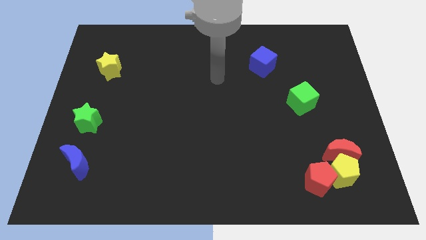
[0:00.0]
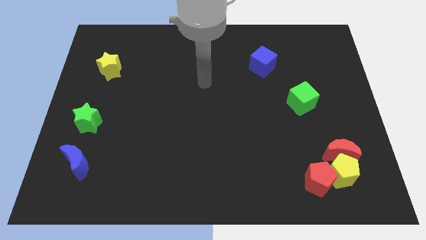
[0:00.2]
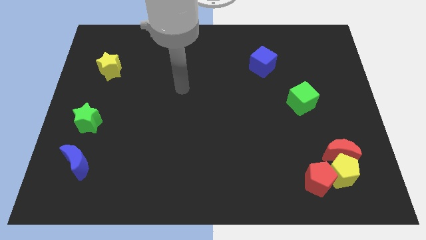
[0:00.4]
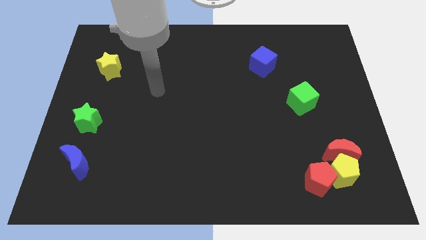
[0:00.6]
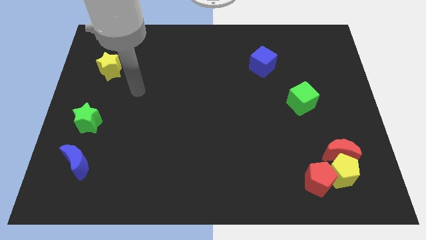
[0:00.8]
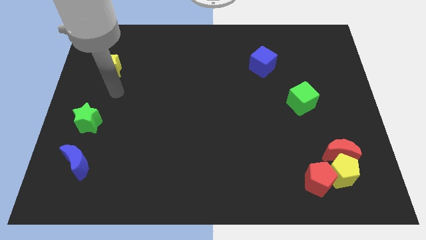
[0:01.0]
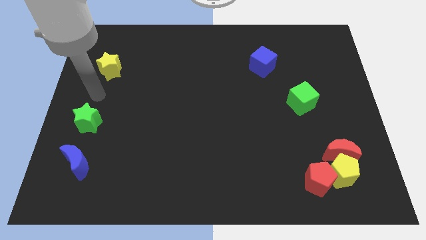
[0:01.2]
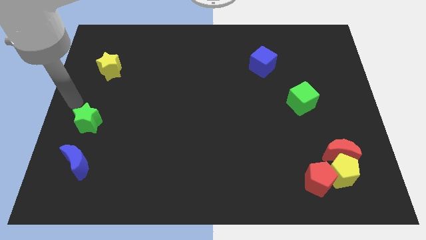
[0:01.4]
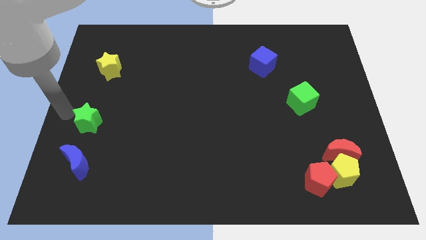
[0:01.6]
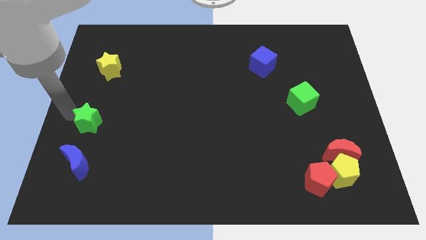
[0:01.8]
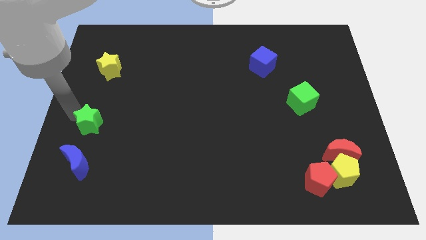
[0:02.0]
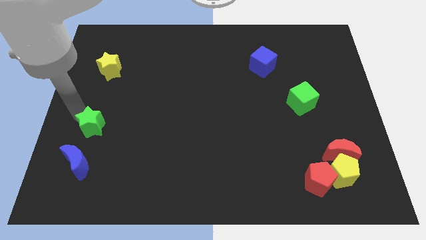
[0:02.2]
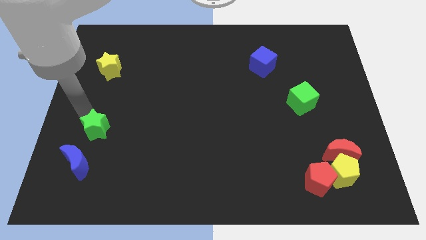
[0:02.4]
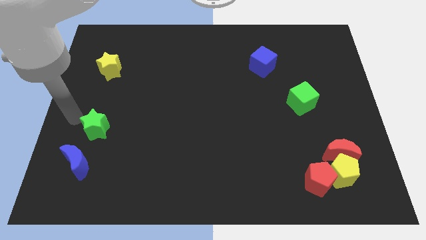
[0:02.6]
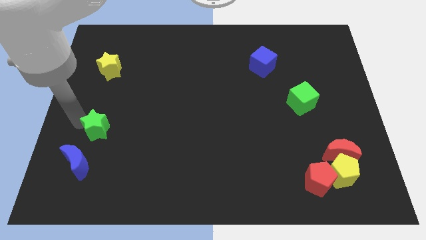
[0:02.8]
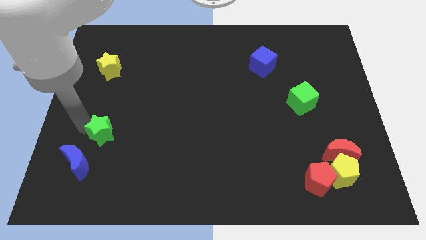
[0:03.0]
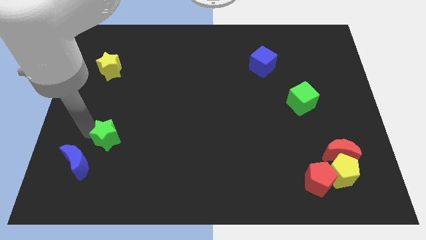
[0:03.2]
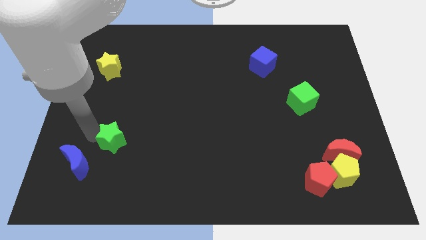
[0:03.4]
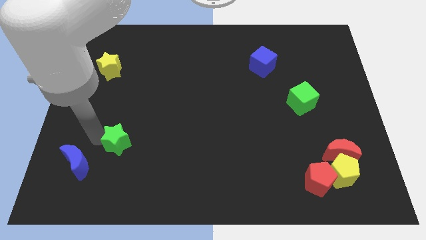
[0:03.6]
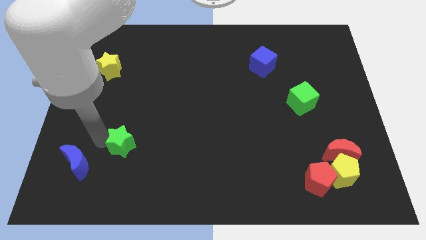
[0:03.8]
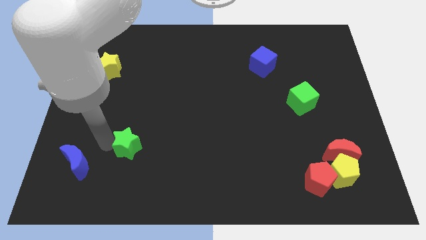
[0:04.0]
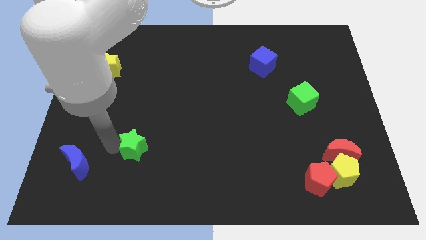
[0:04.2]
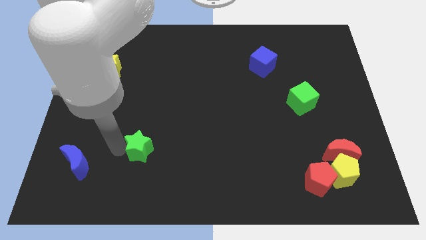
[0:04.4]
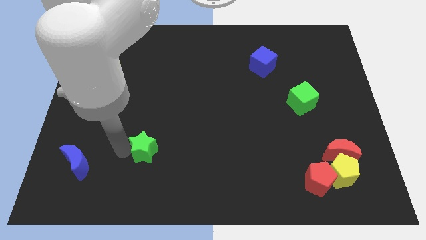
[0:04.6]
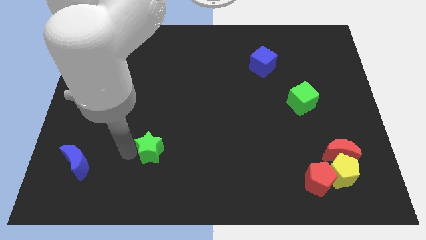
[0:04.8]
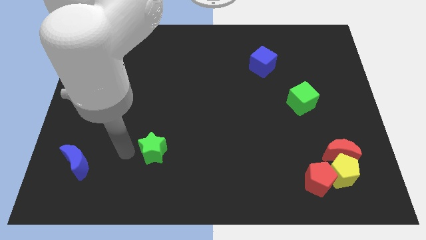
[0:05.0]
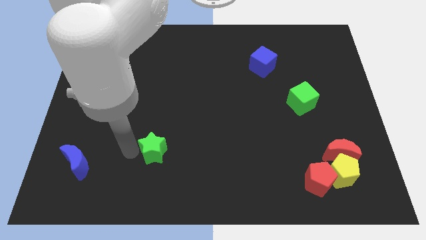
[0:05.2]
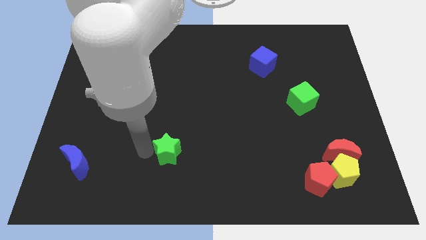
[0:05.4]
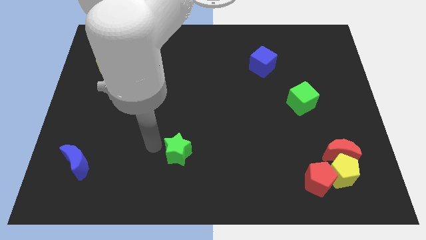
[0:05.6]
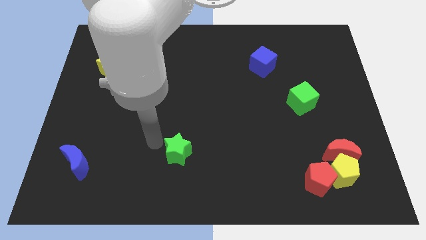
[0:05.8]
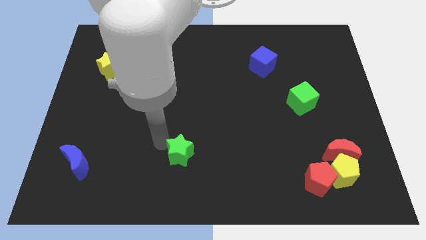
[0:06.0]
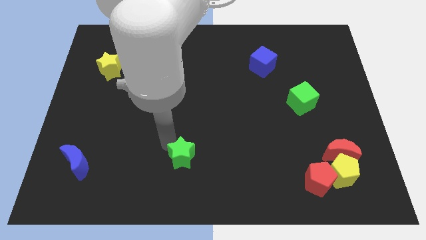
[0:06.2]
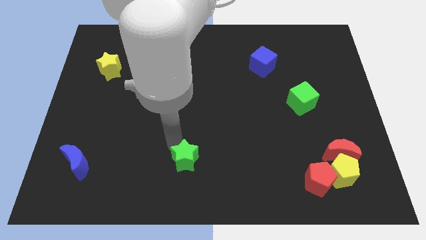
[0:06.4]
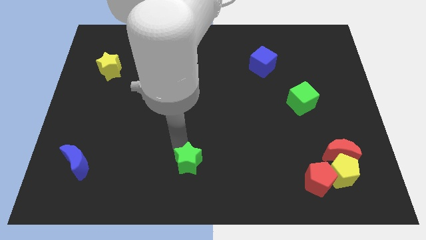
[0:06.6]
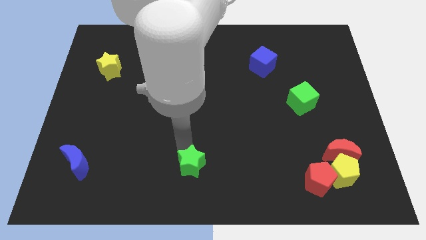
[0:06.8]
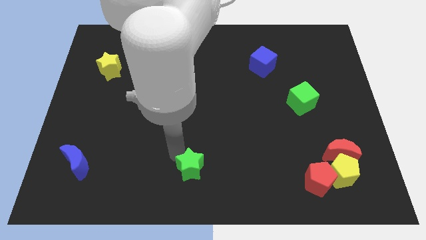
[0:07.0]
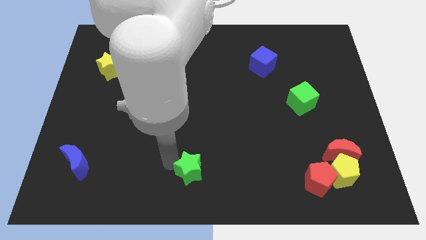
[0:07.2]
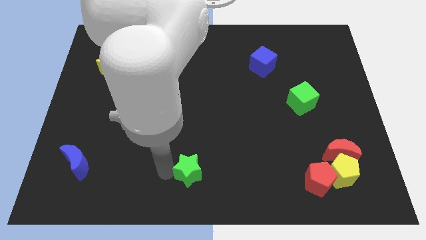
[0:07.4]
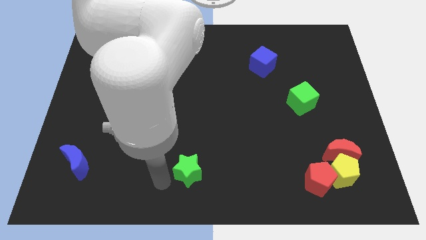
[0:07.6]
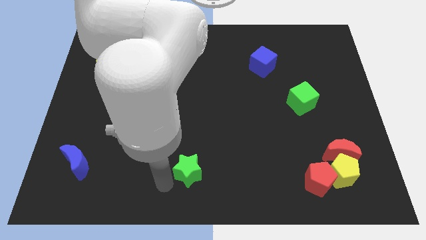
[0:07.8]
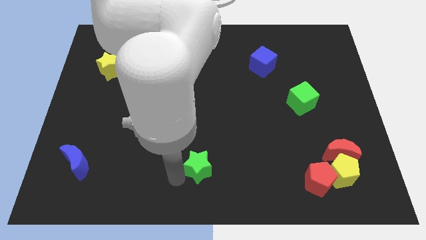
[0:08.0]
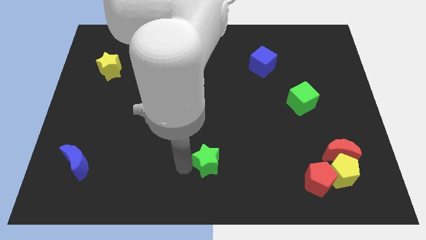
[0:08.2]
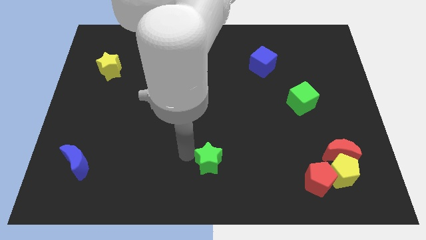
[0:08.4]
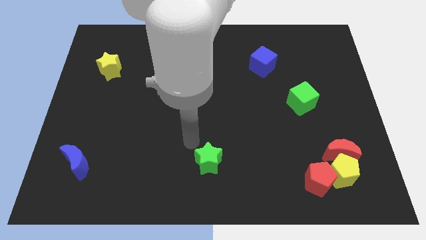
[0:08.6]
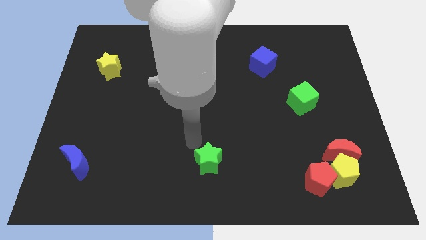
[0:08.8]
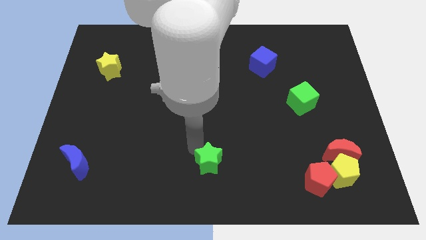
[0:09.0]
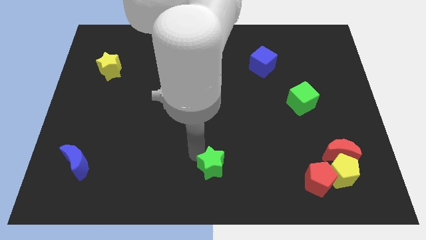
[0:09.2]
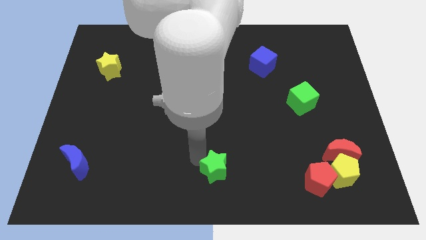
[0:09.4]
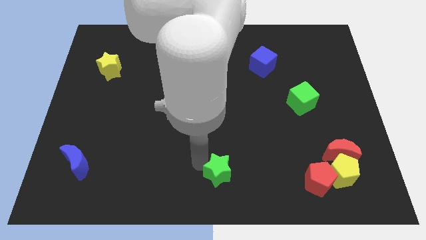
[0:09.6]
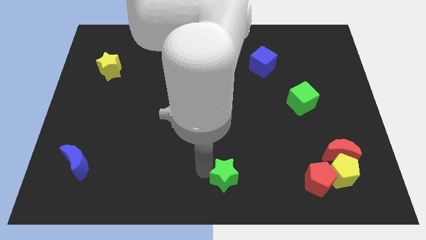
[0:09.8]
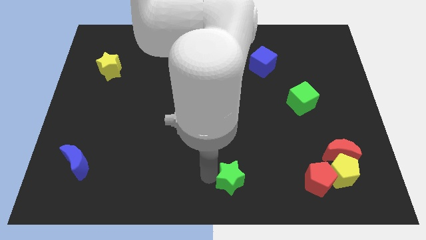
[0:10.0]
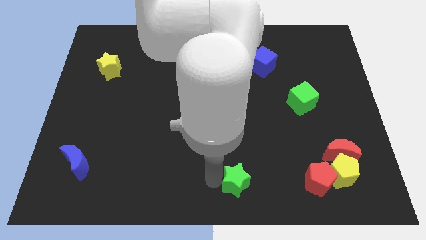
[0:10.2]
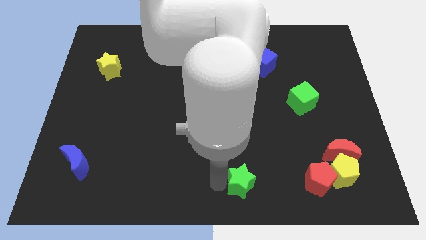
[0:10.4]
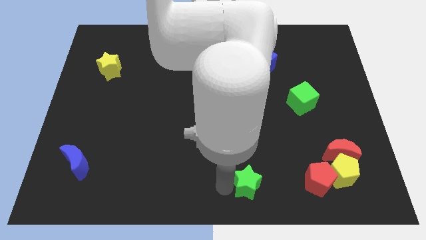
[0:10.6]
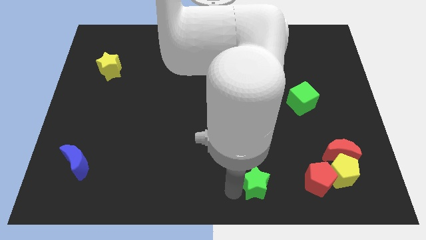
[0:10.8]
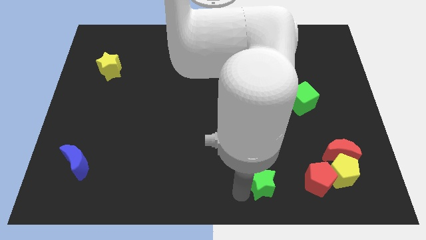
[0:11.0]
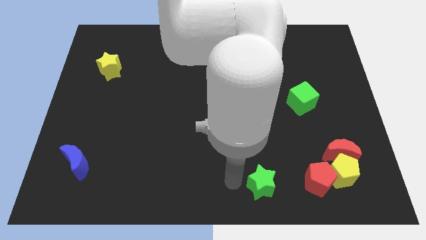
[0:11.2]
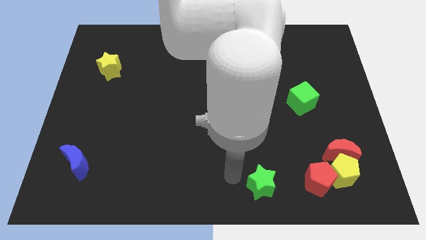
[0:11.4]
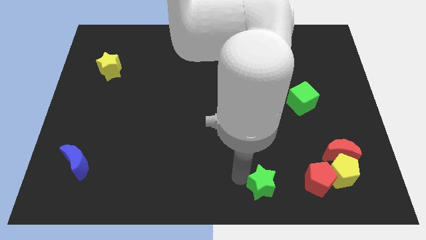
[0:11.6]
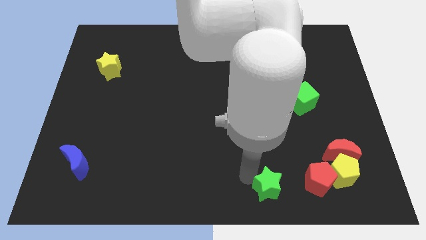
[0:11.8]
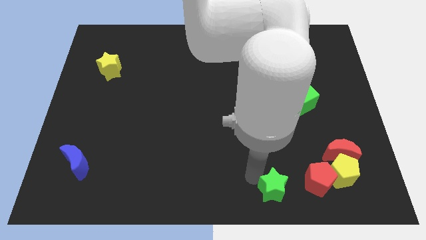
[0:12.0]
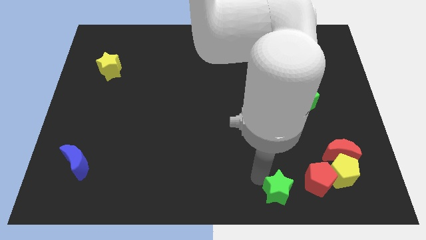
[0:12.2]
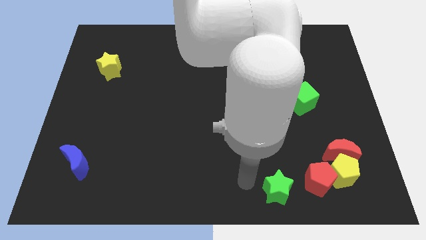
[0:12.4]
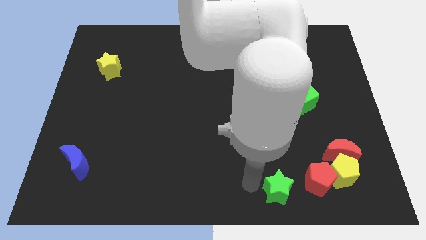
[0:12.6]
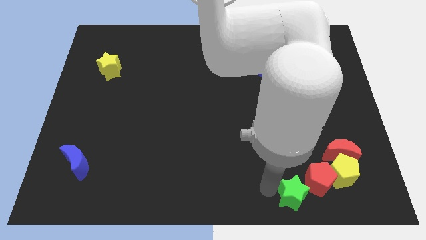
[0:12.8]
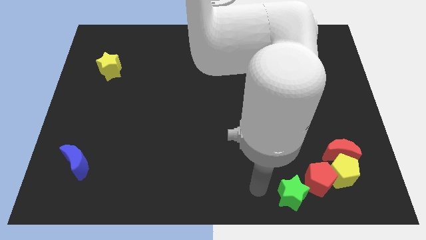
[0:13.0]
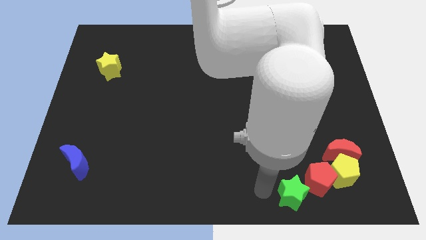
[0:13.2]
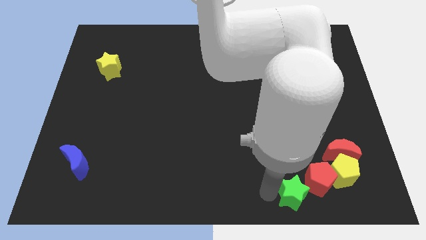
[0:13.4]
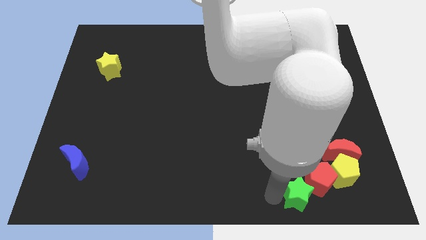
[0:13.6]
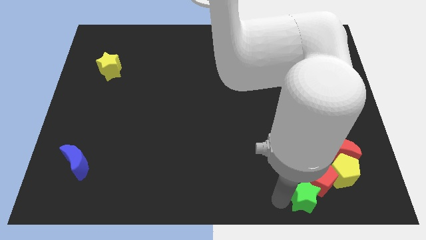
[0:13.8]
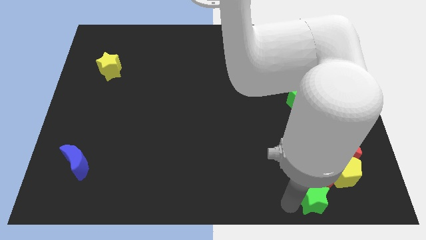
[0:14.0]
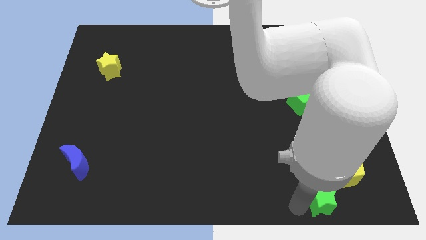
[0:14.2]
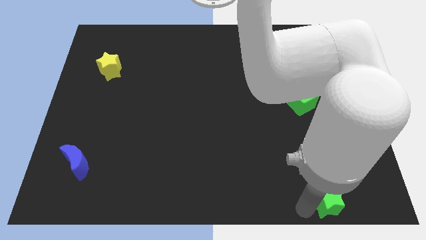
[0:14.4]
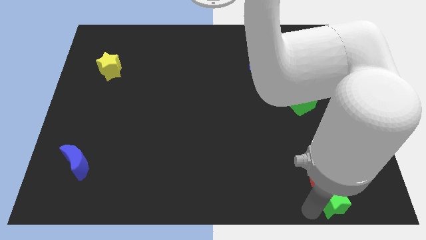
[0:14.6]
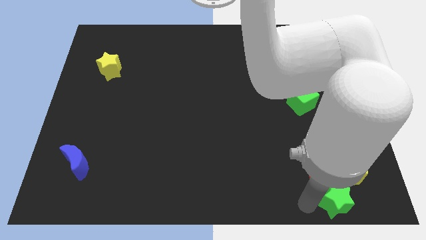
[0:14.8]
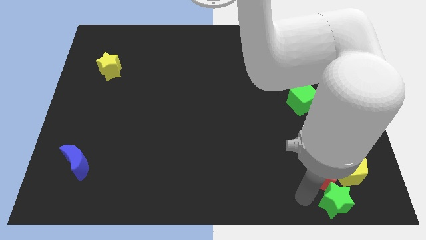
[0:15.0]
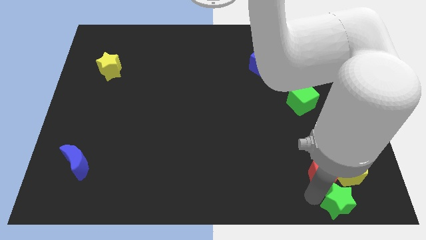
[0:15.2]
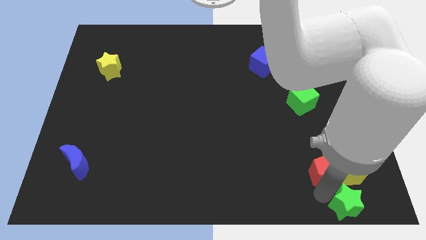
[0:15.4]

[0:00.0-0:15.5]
push the green star to the lower right corner
